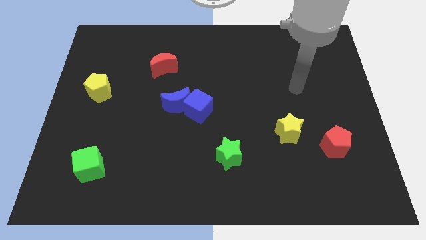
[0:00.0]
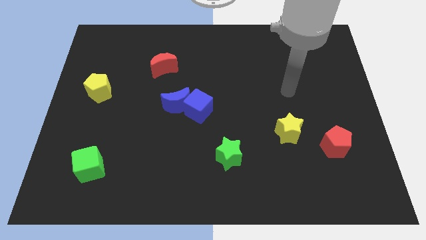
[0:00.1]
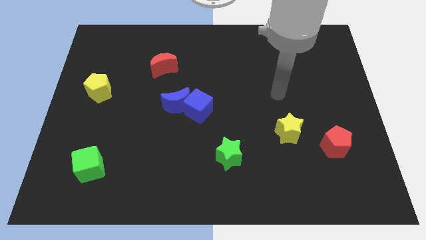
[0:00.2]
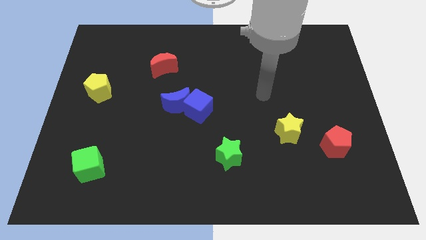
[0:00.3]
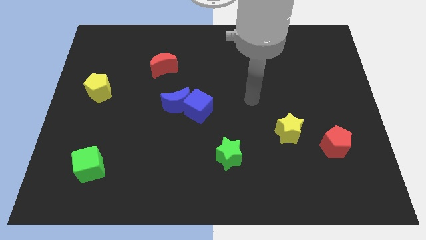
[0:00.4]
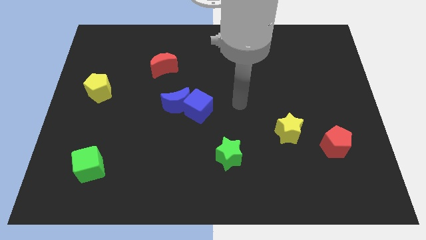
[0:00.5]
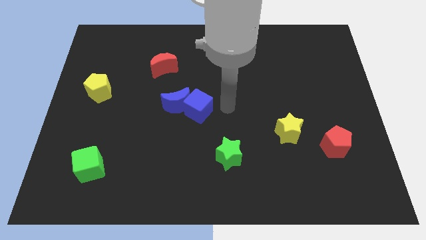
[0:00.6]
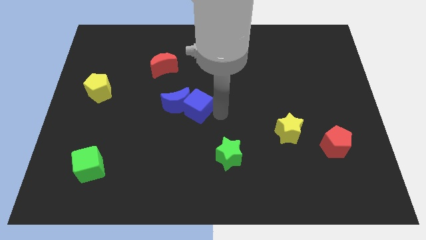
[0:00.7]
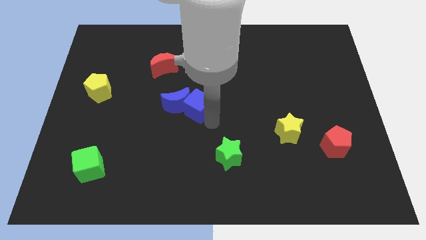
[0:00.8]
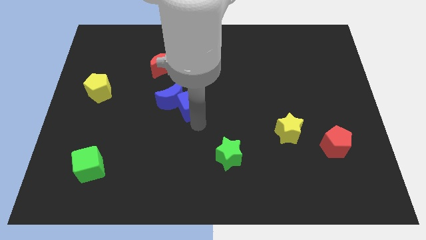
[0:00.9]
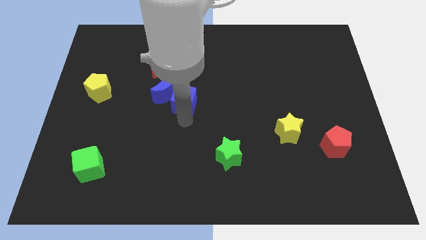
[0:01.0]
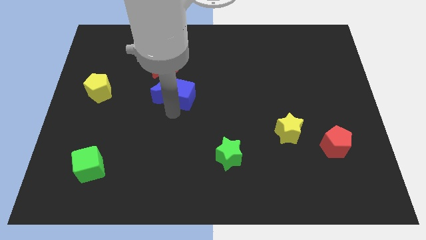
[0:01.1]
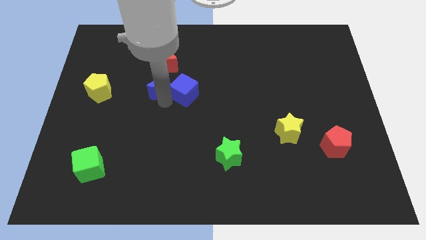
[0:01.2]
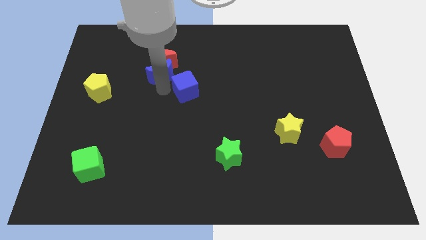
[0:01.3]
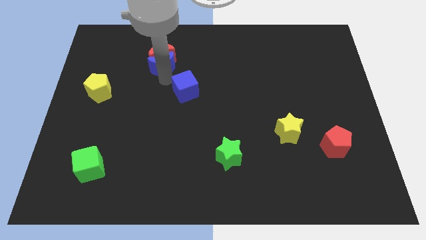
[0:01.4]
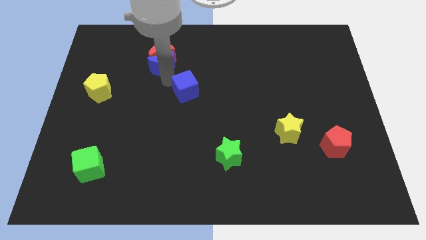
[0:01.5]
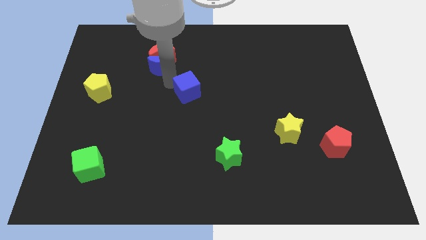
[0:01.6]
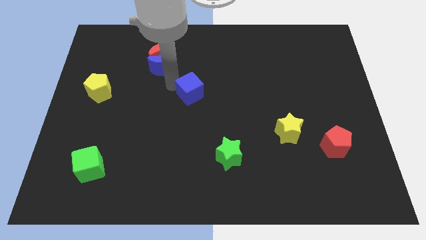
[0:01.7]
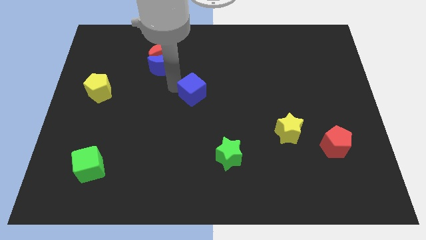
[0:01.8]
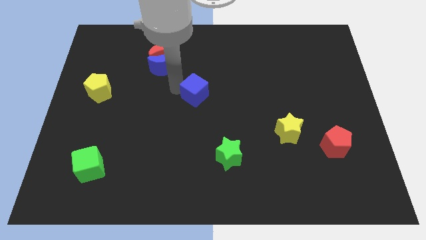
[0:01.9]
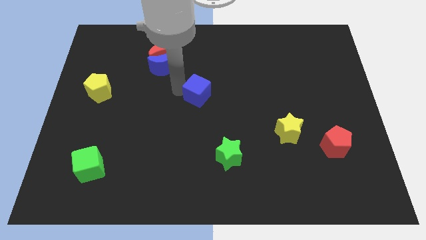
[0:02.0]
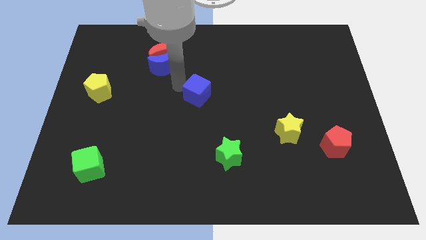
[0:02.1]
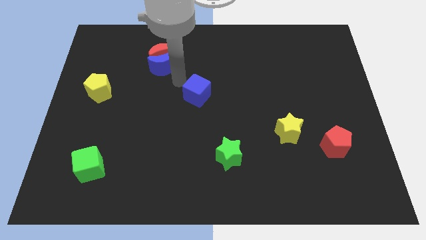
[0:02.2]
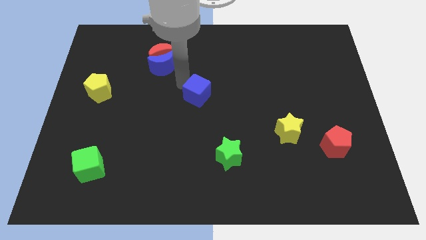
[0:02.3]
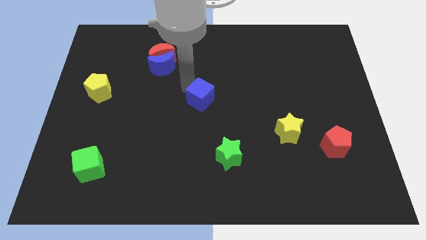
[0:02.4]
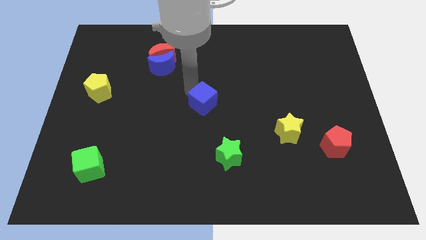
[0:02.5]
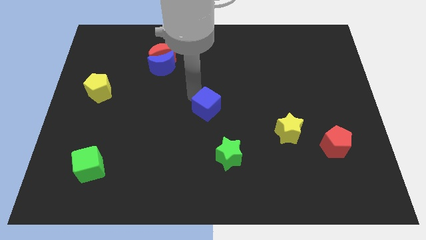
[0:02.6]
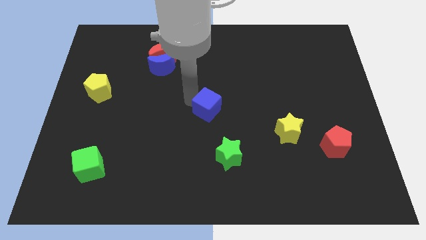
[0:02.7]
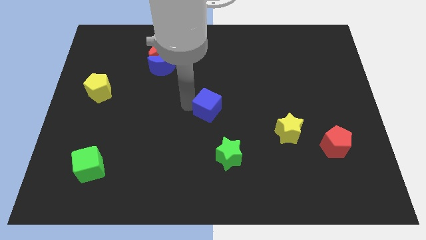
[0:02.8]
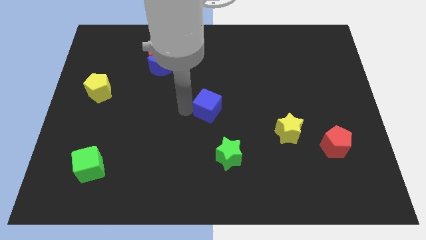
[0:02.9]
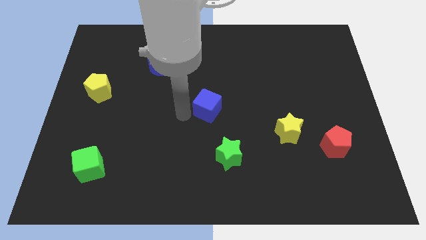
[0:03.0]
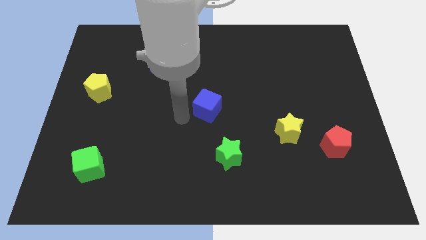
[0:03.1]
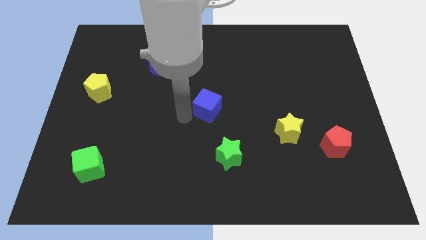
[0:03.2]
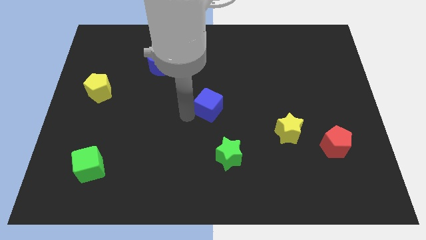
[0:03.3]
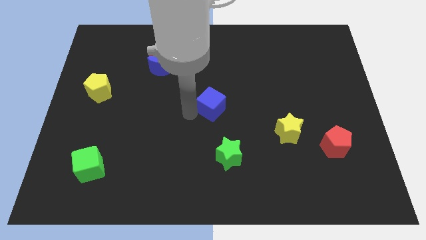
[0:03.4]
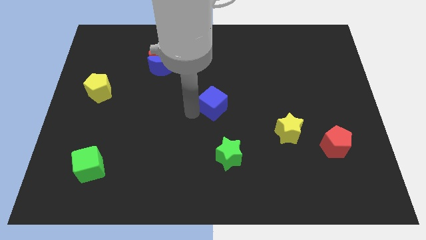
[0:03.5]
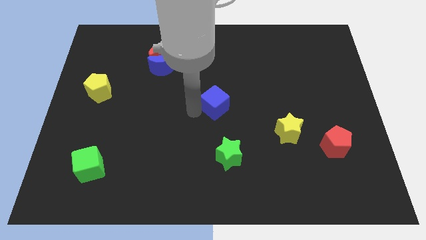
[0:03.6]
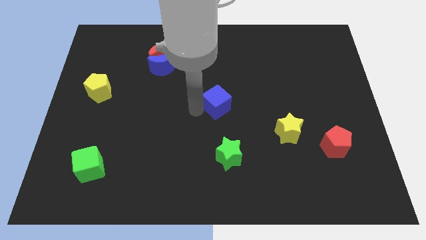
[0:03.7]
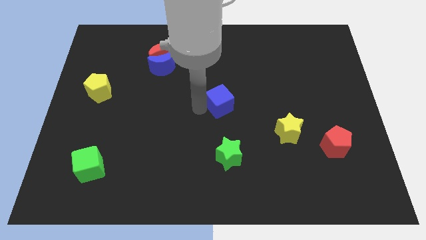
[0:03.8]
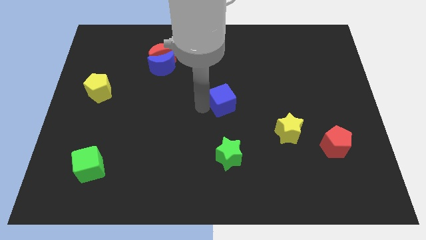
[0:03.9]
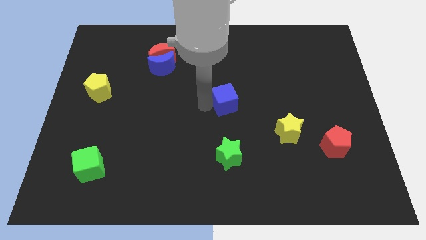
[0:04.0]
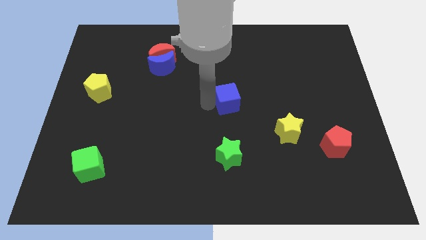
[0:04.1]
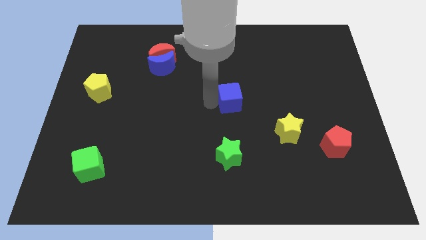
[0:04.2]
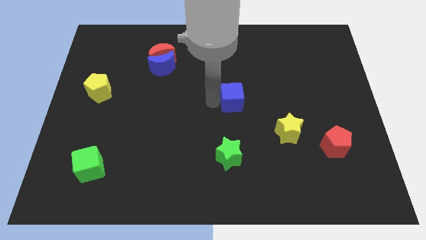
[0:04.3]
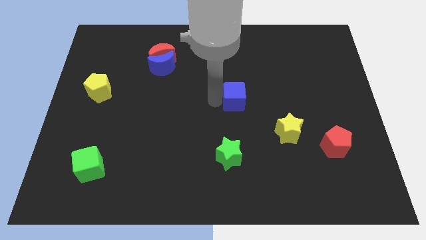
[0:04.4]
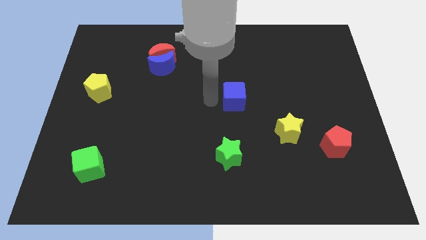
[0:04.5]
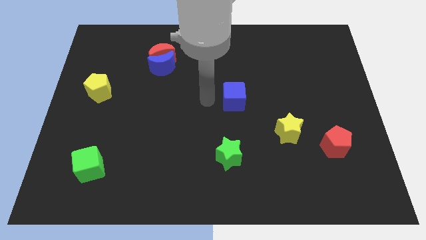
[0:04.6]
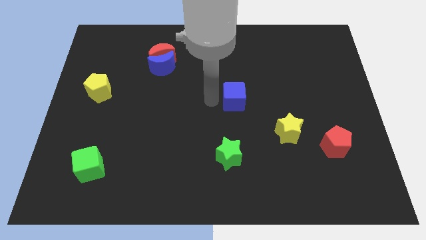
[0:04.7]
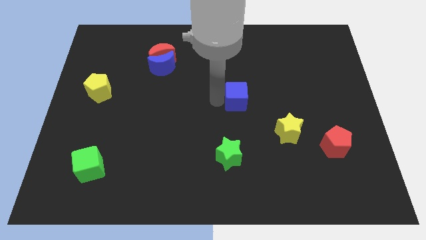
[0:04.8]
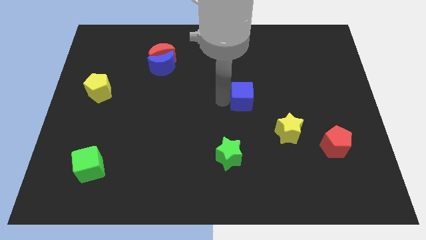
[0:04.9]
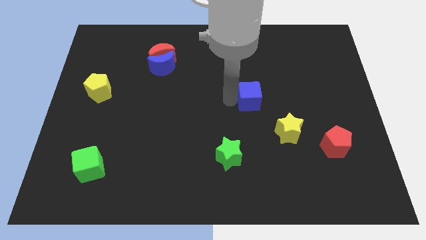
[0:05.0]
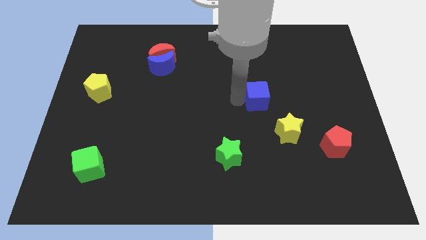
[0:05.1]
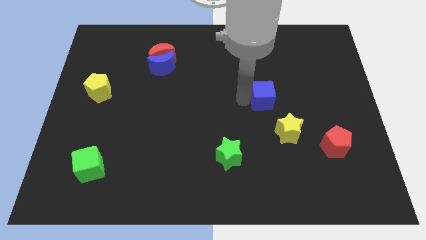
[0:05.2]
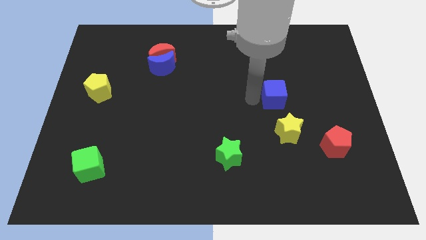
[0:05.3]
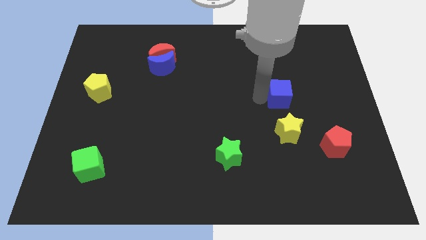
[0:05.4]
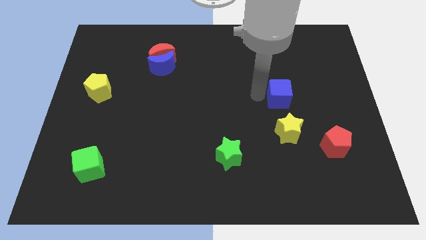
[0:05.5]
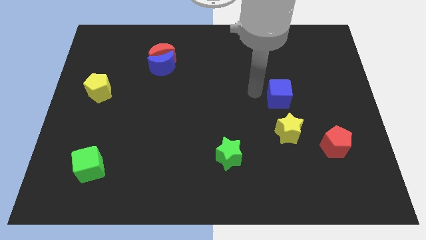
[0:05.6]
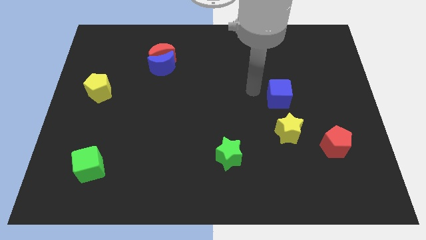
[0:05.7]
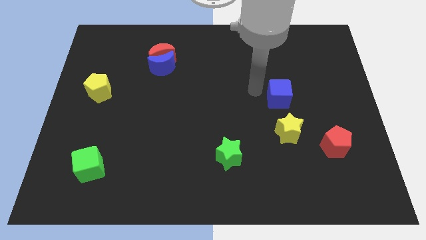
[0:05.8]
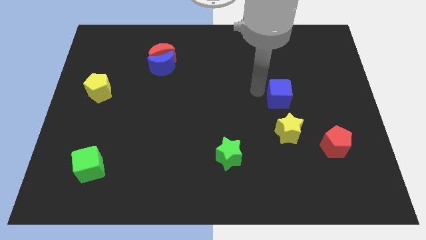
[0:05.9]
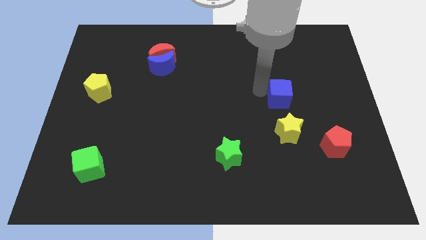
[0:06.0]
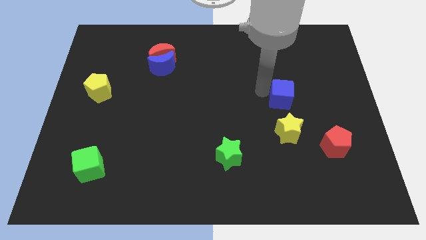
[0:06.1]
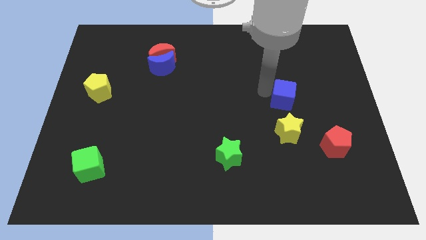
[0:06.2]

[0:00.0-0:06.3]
slide the blue cube to the right

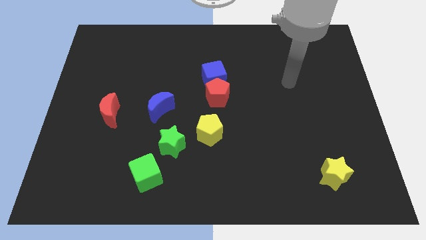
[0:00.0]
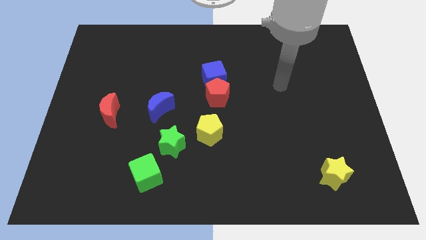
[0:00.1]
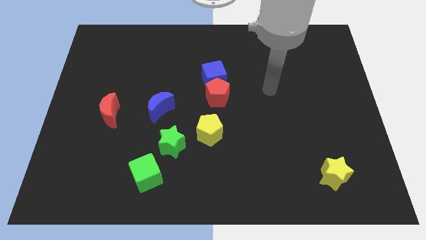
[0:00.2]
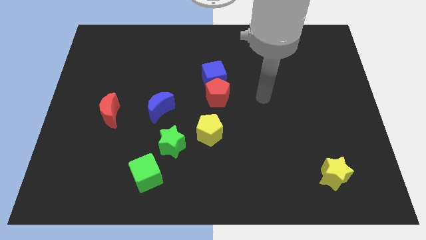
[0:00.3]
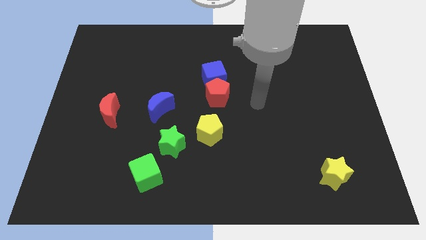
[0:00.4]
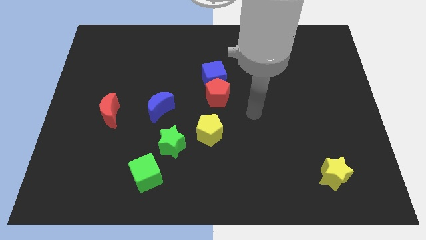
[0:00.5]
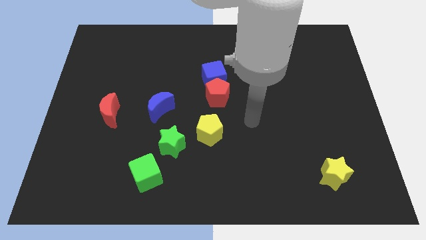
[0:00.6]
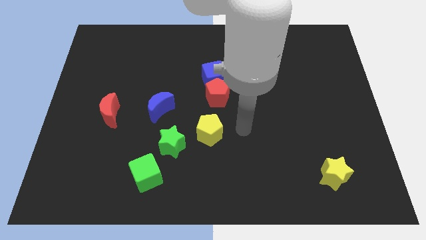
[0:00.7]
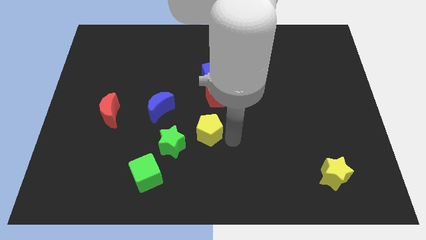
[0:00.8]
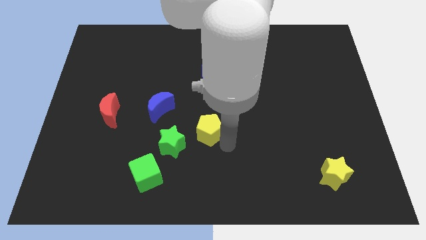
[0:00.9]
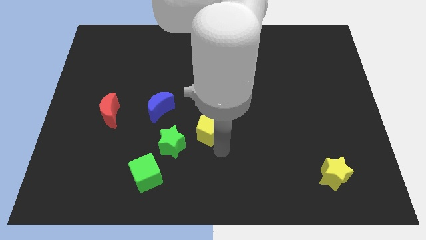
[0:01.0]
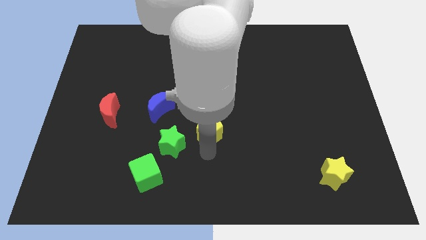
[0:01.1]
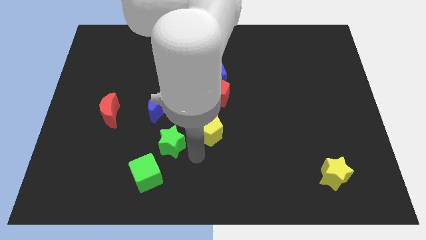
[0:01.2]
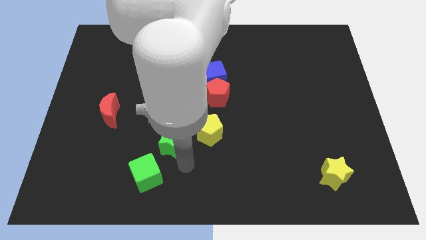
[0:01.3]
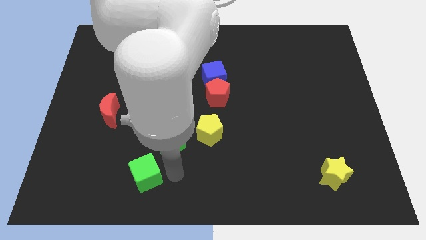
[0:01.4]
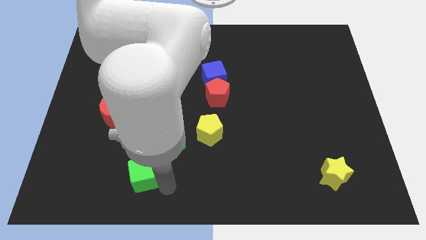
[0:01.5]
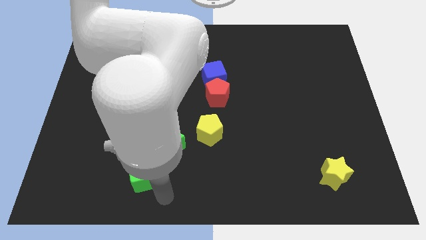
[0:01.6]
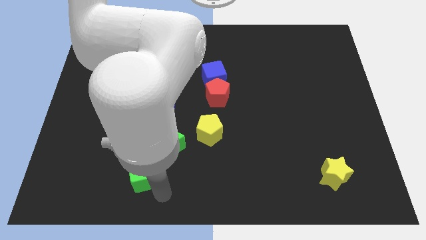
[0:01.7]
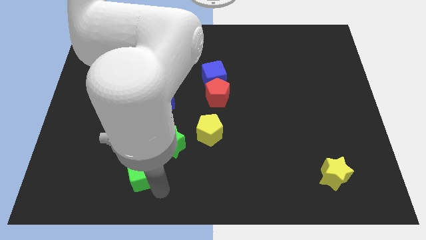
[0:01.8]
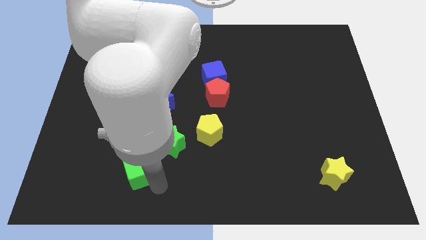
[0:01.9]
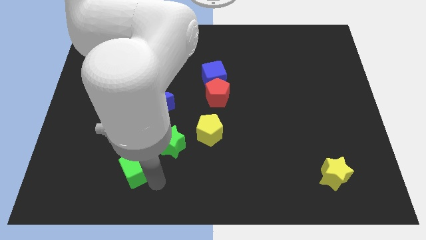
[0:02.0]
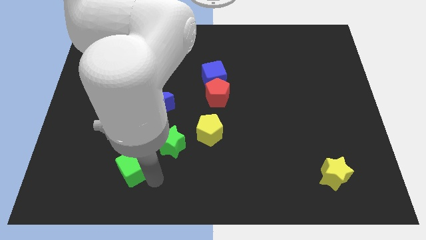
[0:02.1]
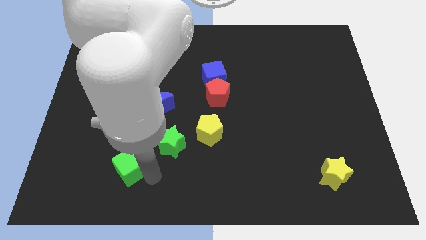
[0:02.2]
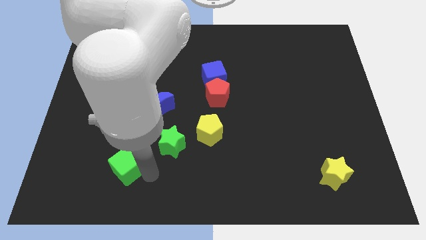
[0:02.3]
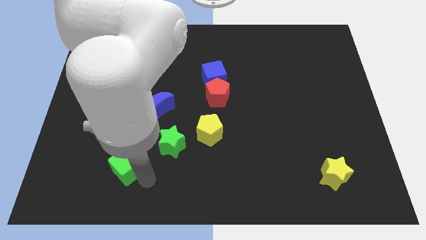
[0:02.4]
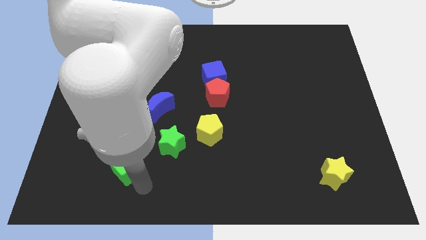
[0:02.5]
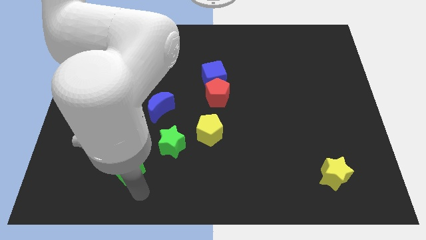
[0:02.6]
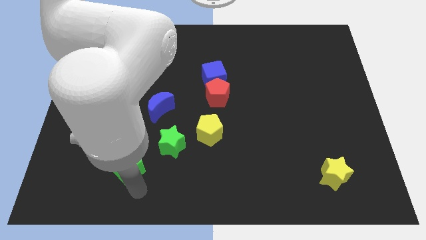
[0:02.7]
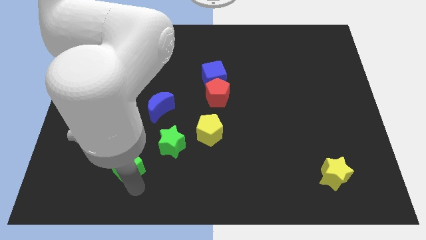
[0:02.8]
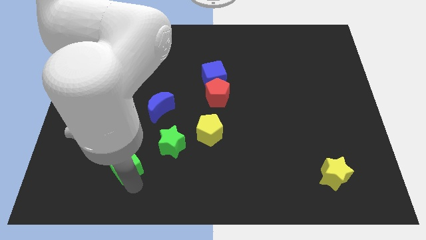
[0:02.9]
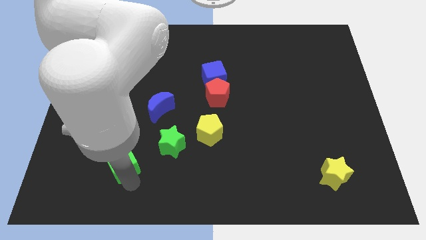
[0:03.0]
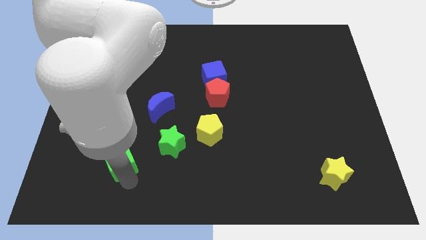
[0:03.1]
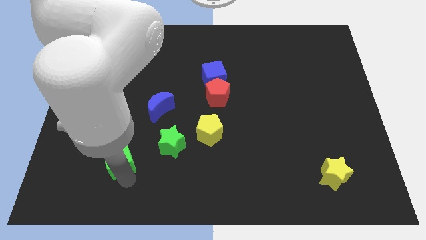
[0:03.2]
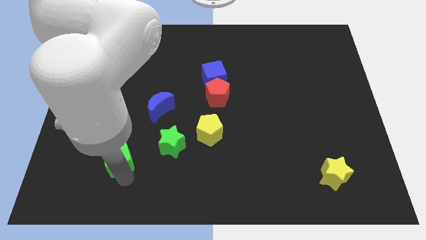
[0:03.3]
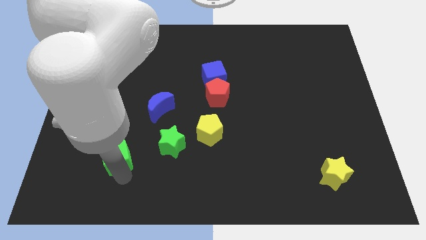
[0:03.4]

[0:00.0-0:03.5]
push the green cube slightly up and to the left
